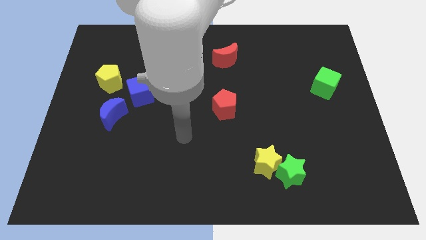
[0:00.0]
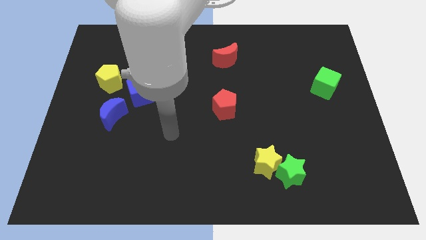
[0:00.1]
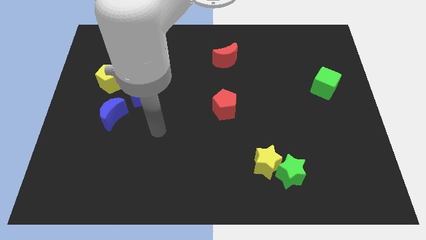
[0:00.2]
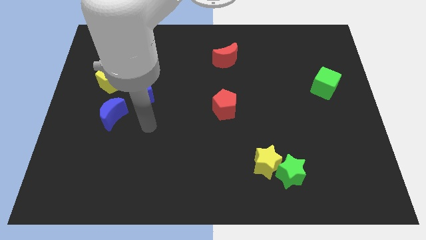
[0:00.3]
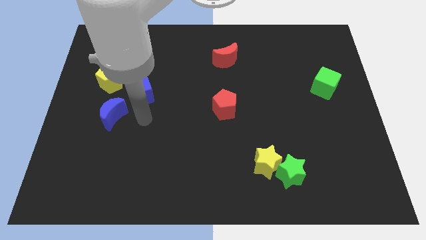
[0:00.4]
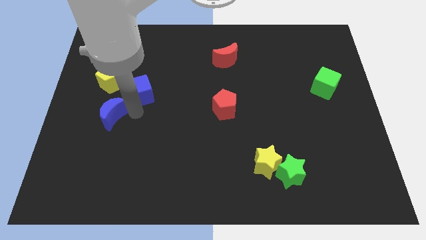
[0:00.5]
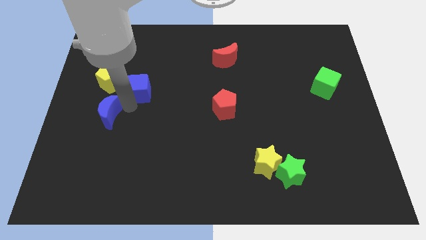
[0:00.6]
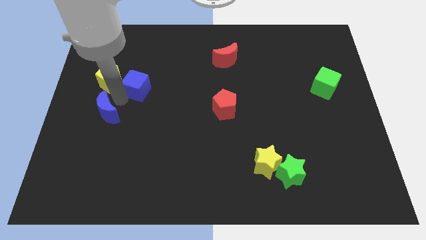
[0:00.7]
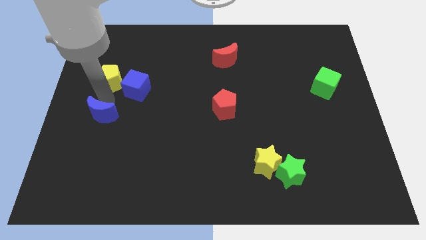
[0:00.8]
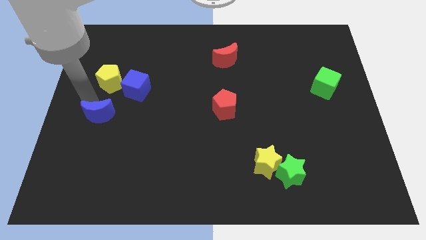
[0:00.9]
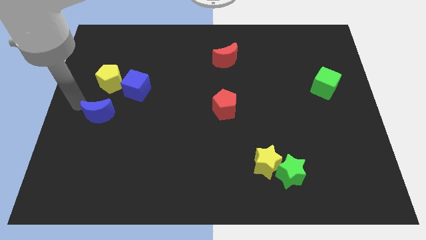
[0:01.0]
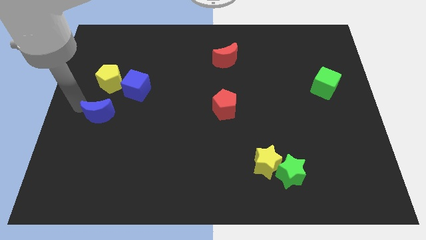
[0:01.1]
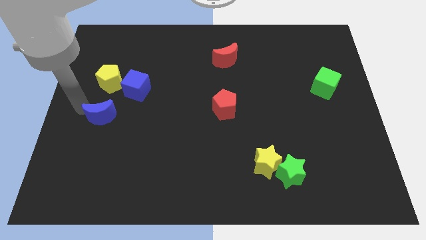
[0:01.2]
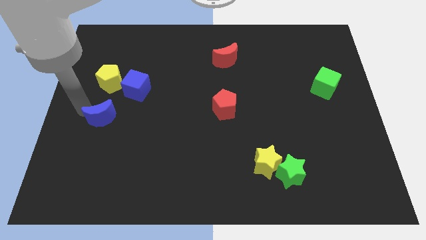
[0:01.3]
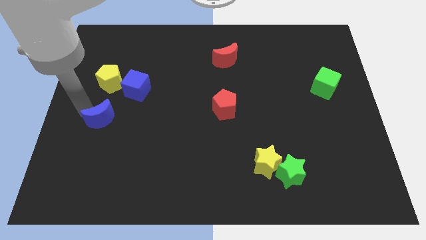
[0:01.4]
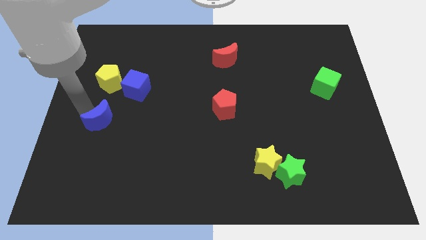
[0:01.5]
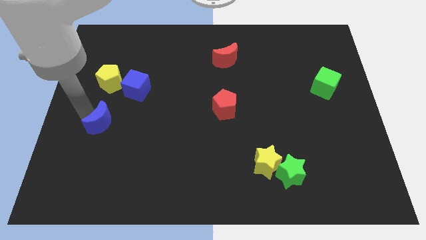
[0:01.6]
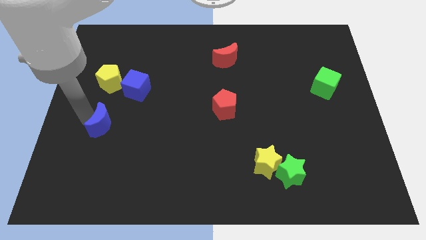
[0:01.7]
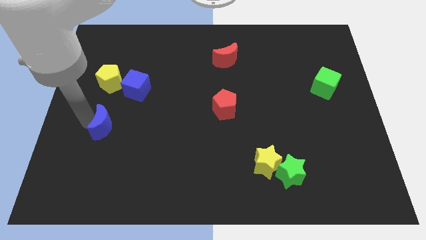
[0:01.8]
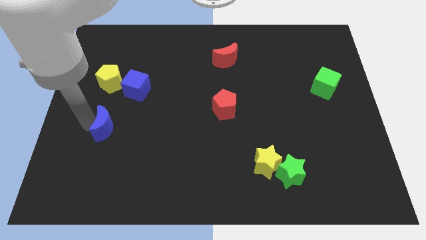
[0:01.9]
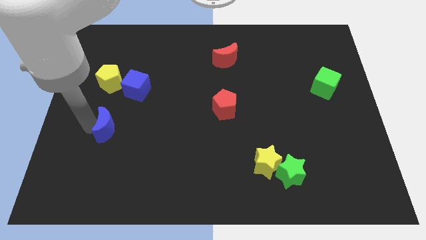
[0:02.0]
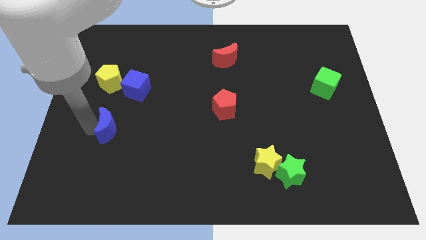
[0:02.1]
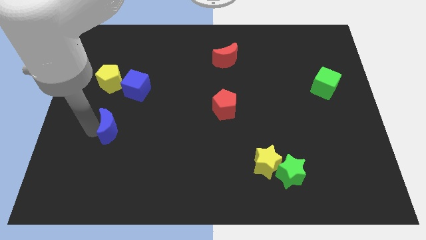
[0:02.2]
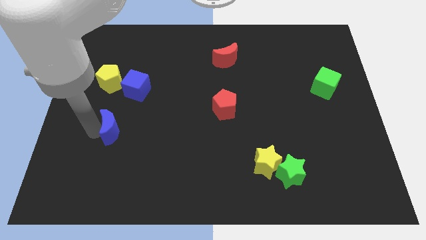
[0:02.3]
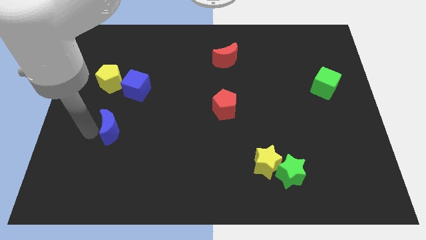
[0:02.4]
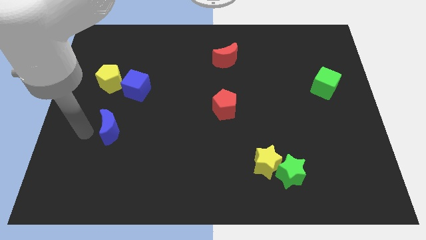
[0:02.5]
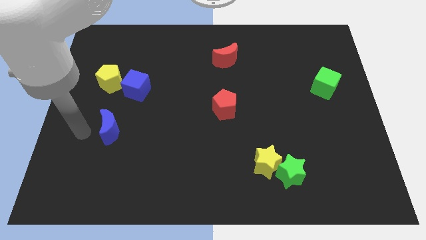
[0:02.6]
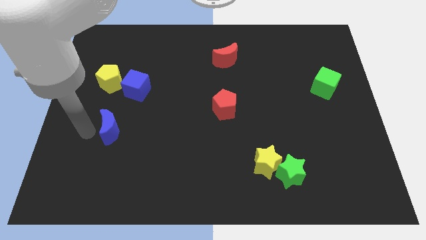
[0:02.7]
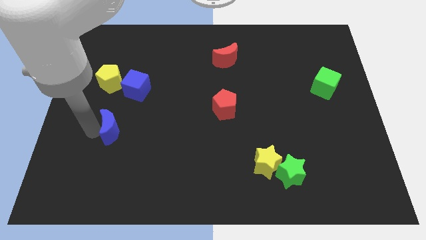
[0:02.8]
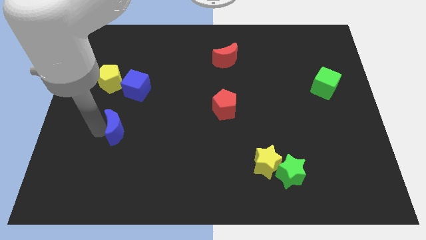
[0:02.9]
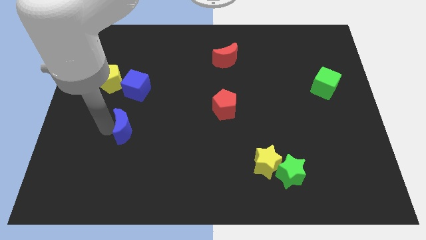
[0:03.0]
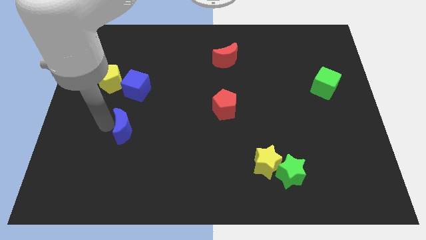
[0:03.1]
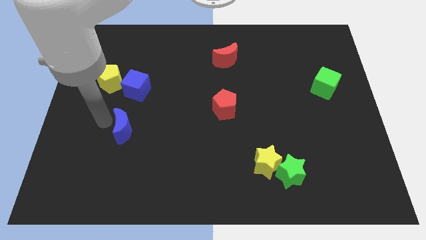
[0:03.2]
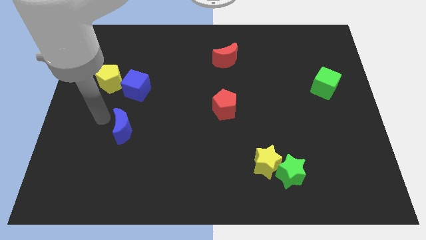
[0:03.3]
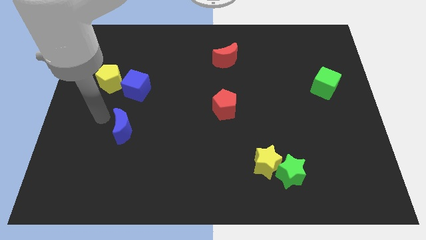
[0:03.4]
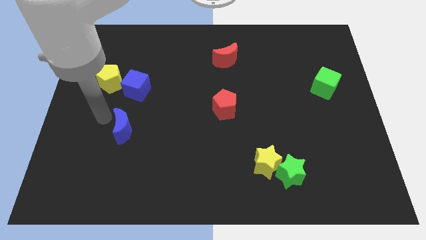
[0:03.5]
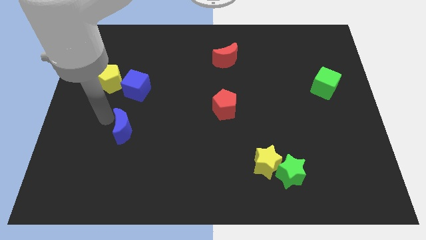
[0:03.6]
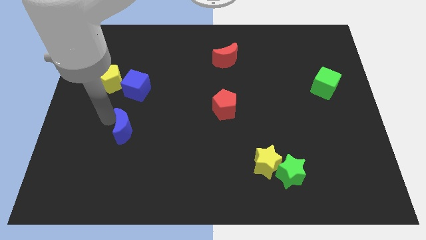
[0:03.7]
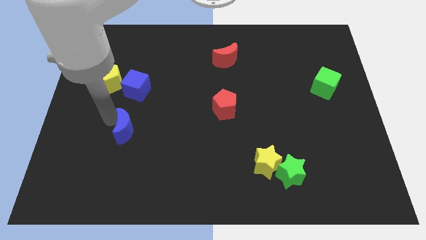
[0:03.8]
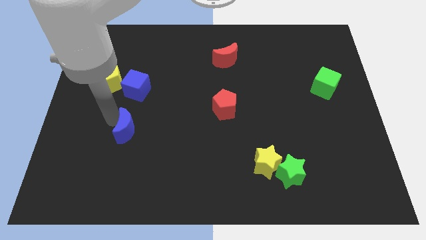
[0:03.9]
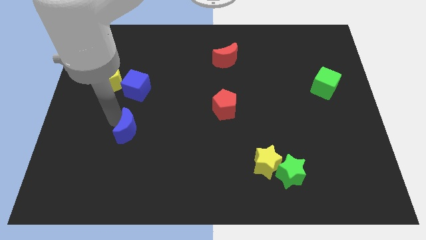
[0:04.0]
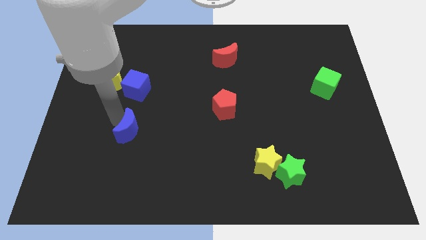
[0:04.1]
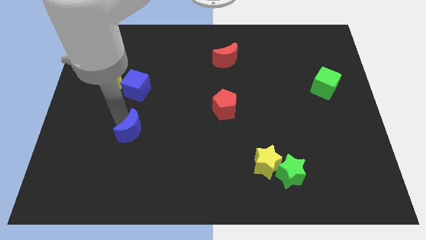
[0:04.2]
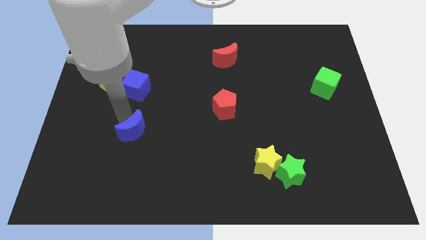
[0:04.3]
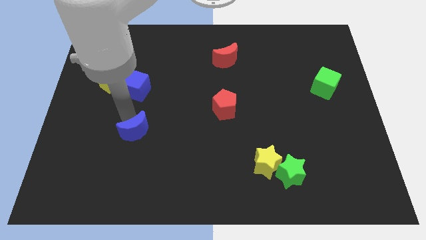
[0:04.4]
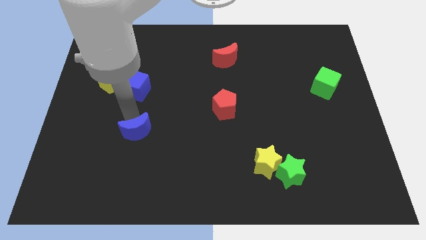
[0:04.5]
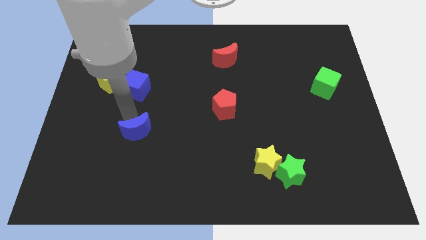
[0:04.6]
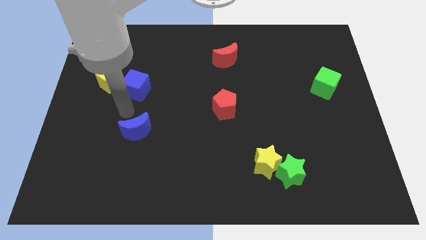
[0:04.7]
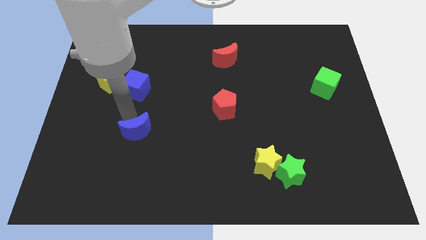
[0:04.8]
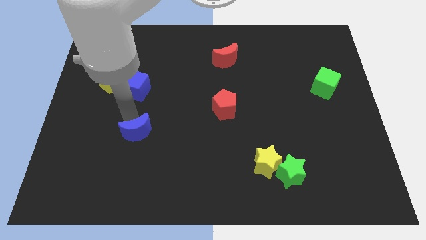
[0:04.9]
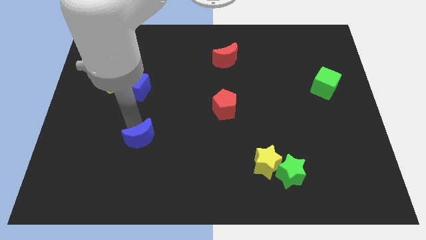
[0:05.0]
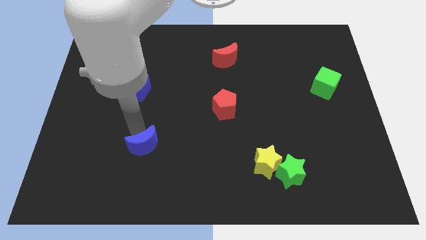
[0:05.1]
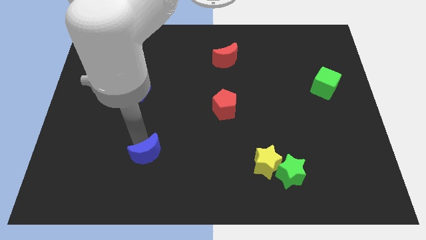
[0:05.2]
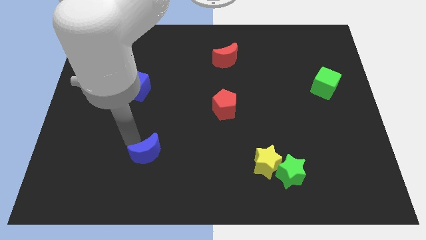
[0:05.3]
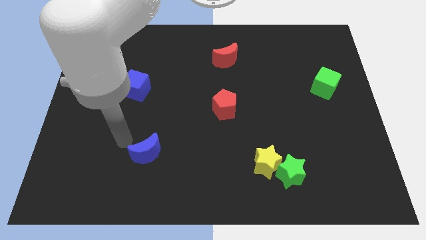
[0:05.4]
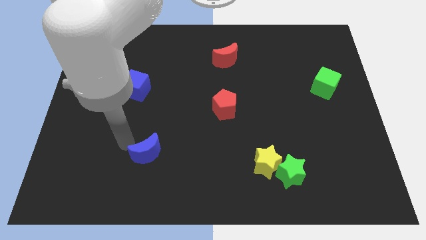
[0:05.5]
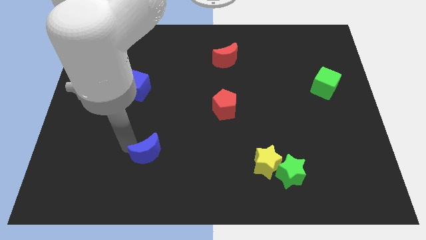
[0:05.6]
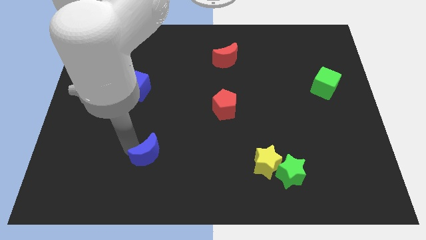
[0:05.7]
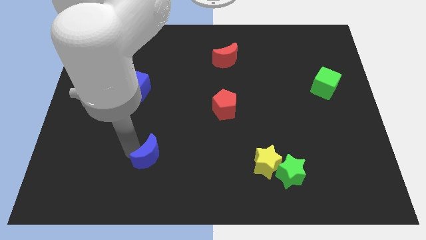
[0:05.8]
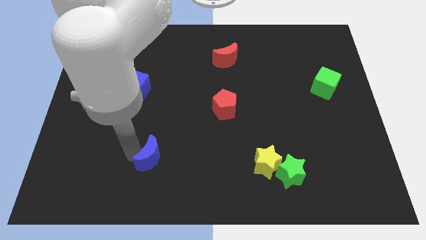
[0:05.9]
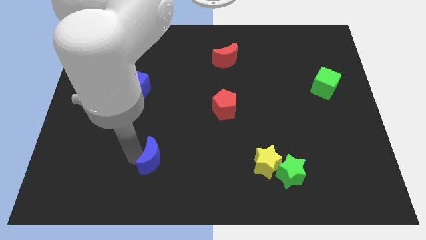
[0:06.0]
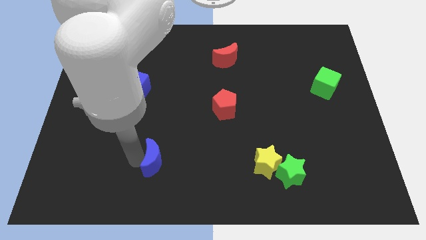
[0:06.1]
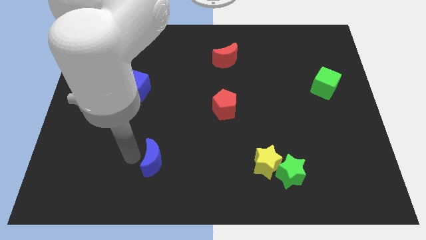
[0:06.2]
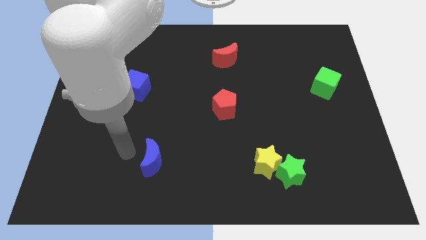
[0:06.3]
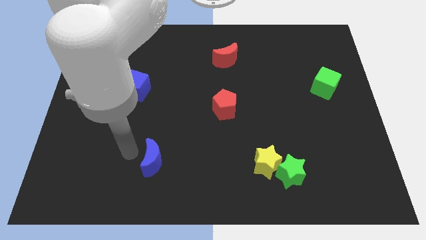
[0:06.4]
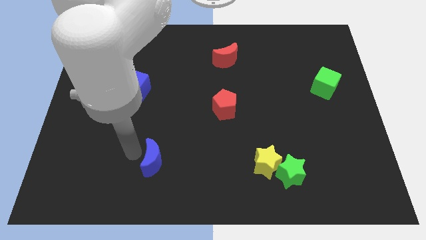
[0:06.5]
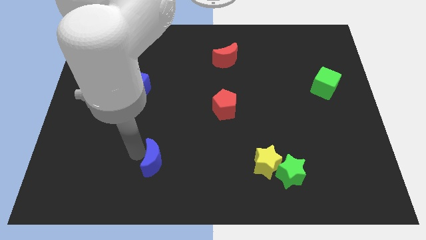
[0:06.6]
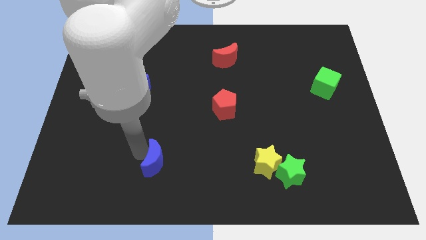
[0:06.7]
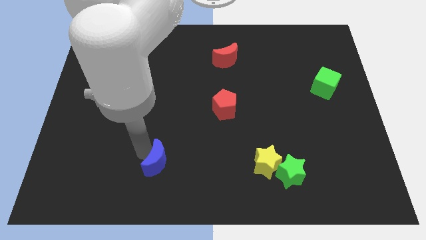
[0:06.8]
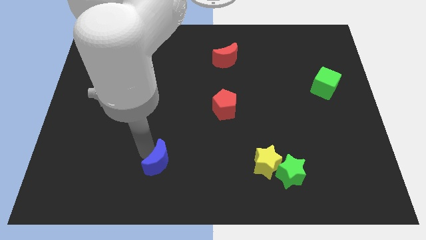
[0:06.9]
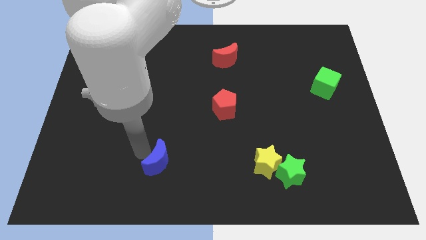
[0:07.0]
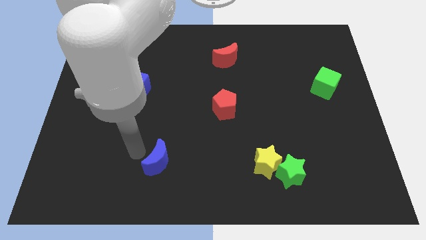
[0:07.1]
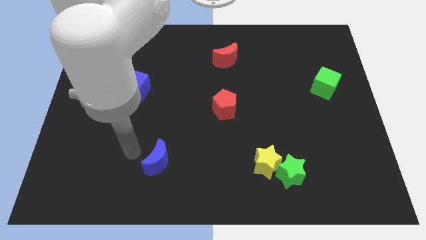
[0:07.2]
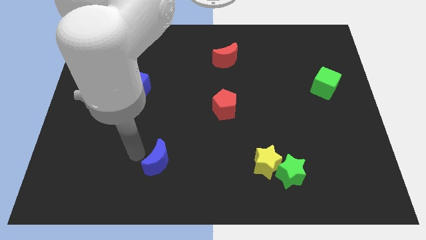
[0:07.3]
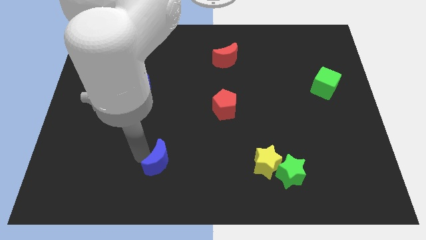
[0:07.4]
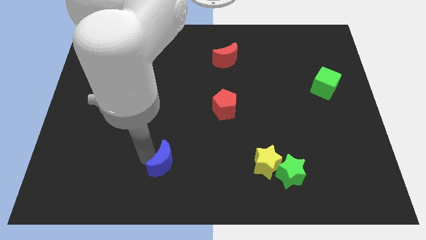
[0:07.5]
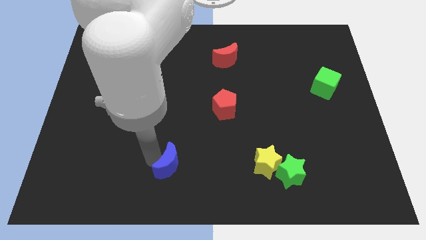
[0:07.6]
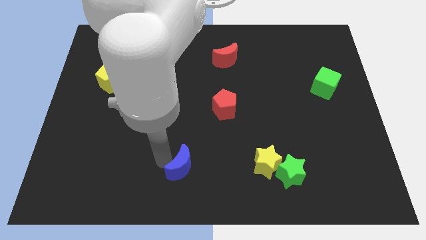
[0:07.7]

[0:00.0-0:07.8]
move the blue moon to the bottom
